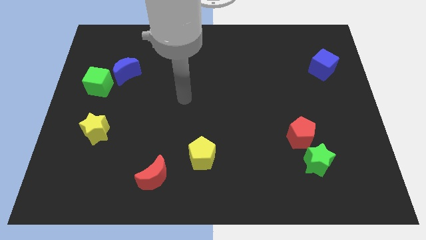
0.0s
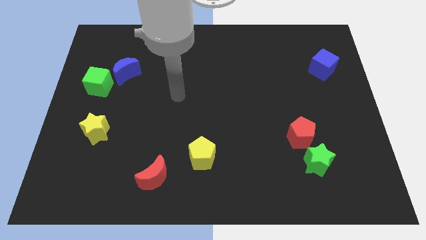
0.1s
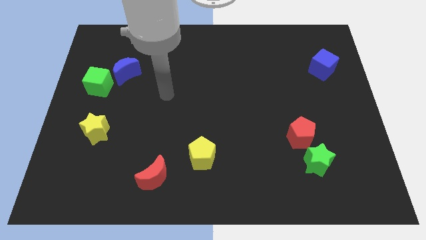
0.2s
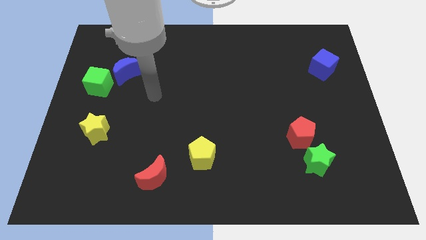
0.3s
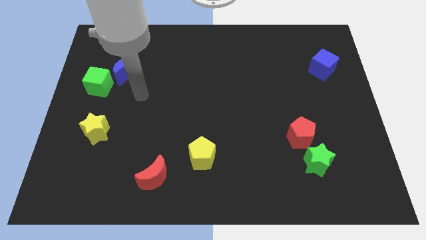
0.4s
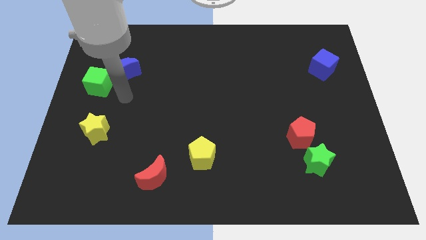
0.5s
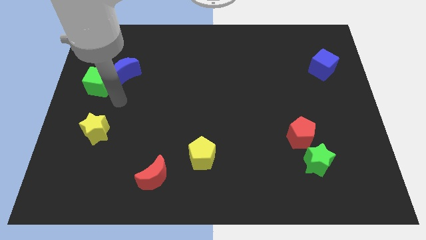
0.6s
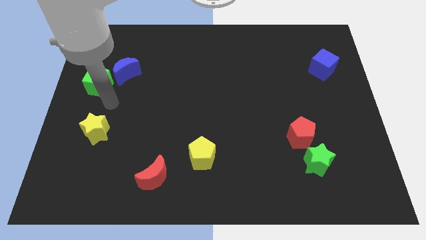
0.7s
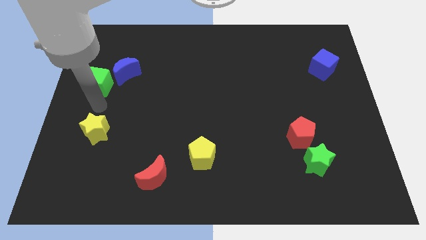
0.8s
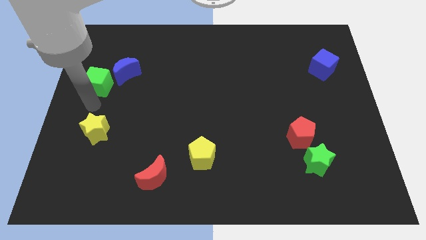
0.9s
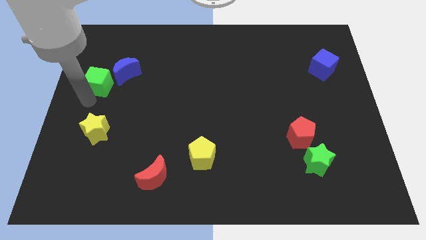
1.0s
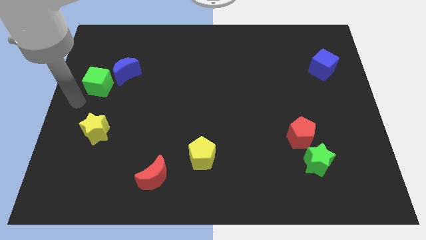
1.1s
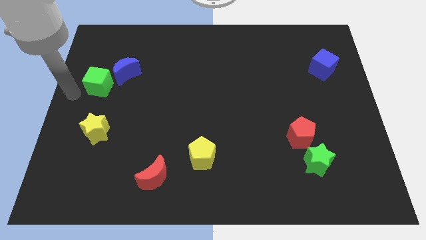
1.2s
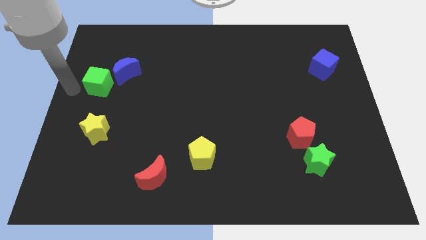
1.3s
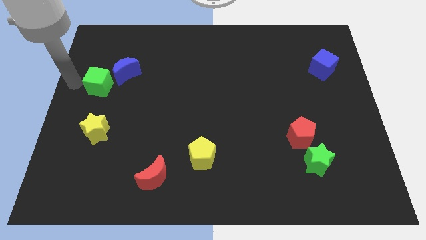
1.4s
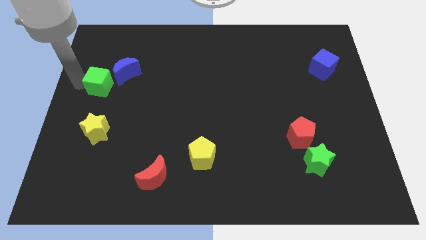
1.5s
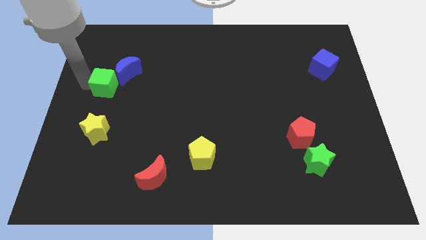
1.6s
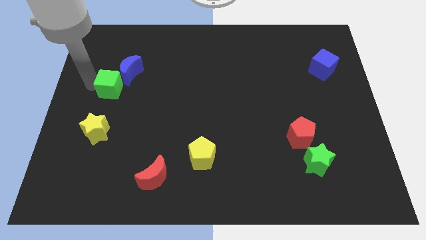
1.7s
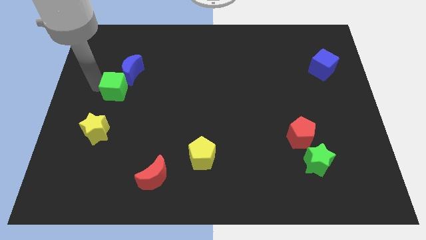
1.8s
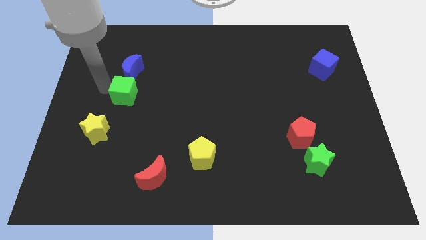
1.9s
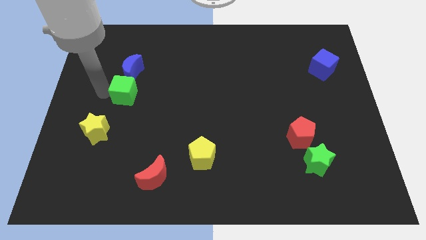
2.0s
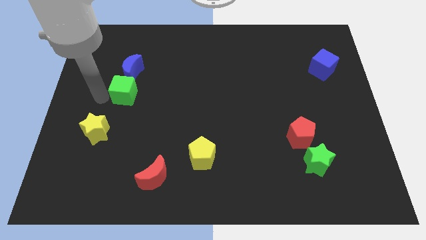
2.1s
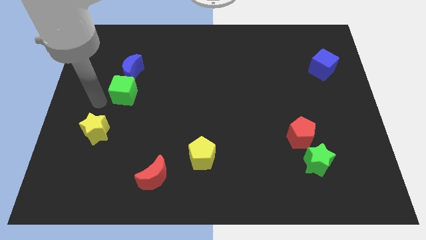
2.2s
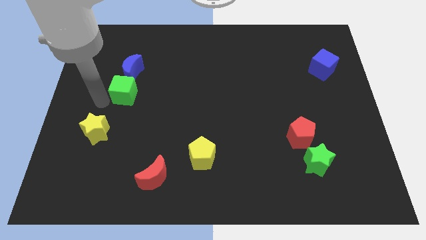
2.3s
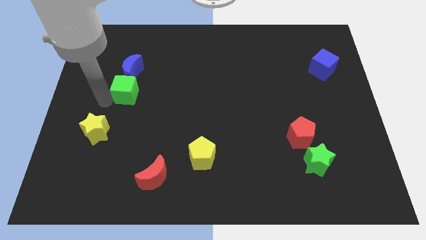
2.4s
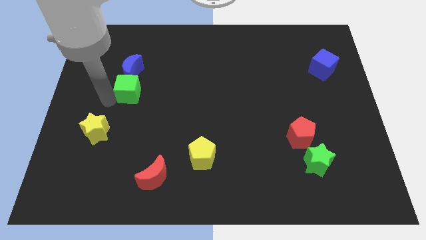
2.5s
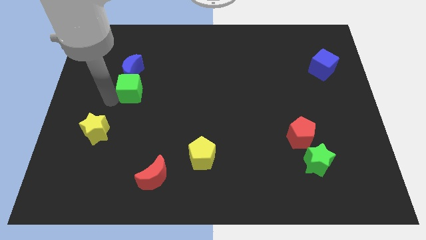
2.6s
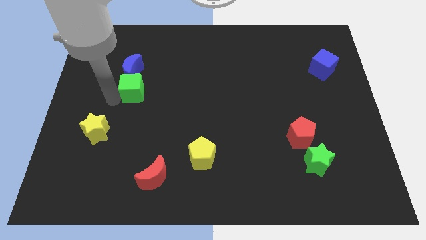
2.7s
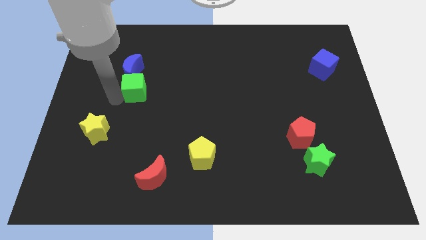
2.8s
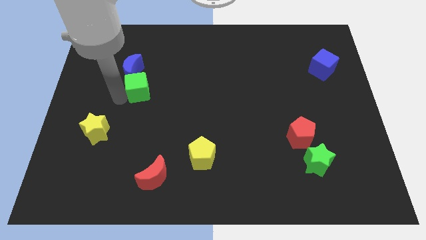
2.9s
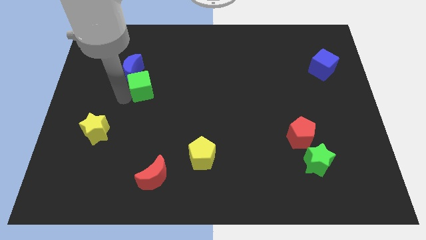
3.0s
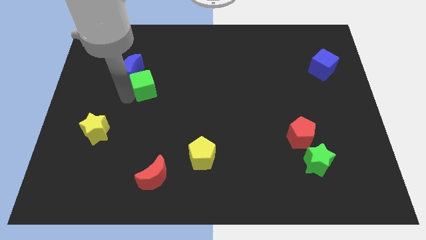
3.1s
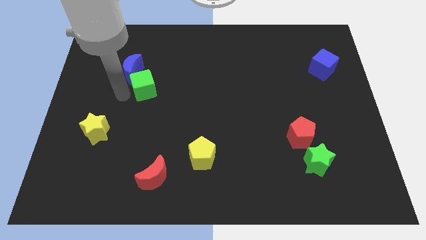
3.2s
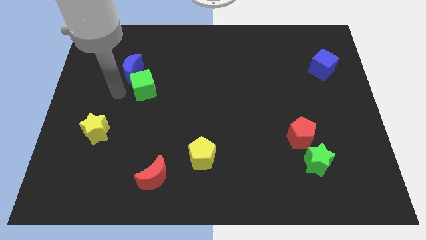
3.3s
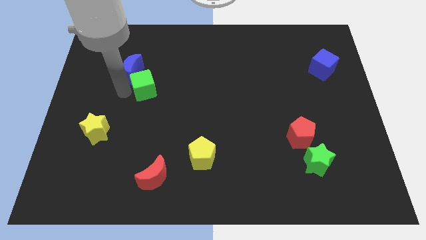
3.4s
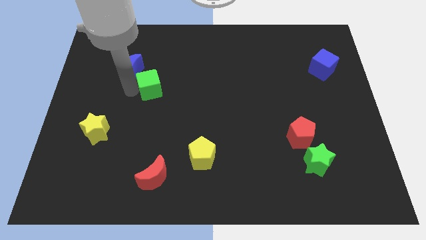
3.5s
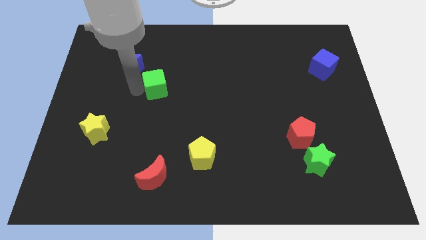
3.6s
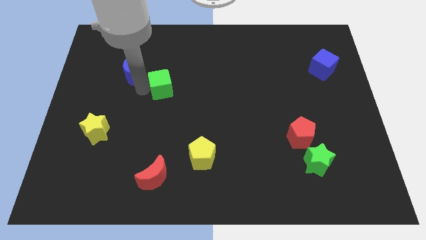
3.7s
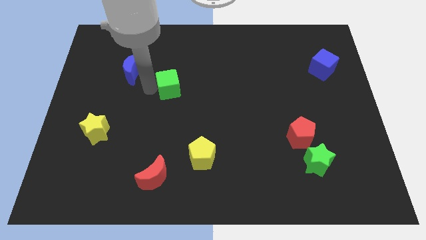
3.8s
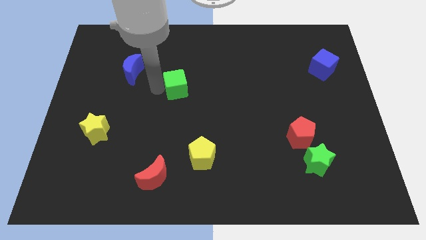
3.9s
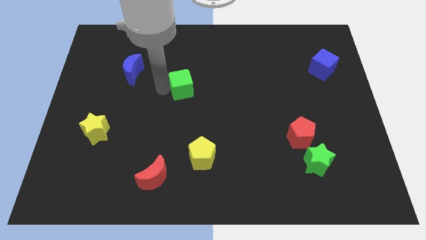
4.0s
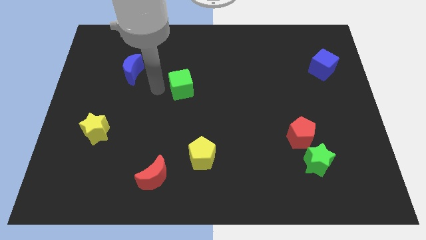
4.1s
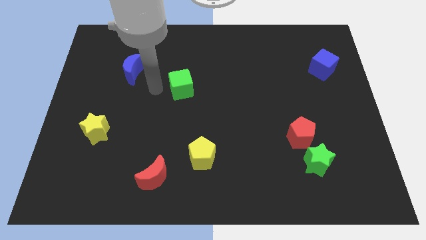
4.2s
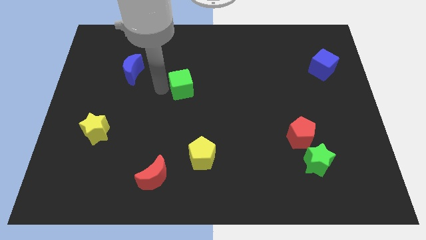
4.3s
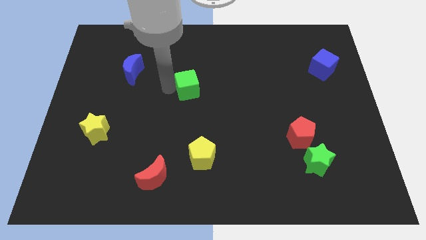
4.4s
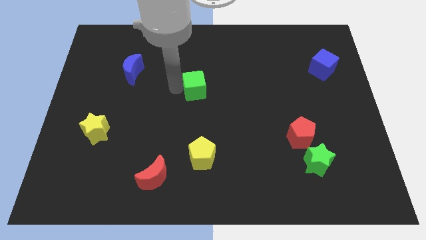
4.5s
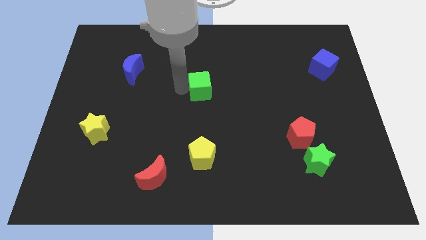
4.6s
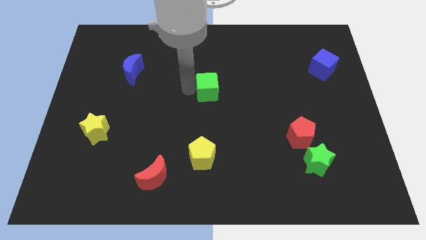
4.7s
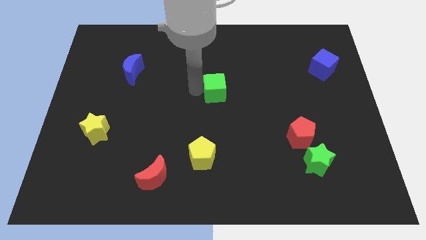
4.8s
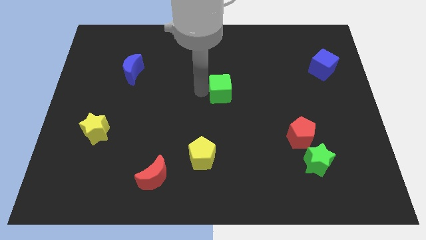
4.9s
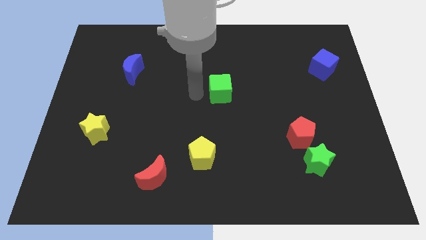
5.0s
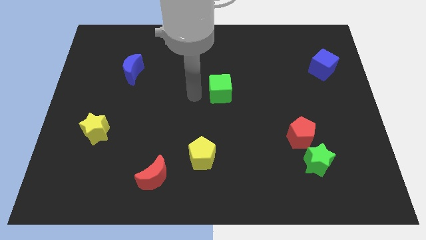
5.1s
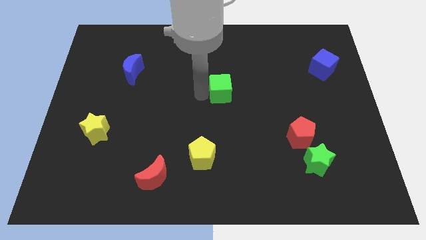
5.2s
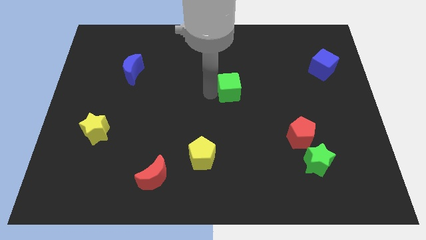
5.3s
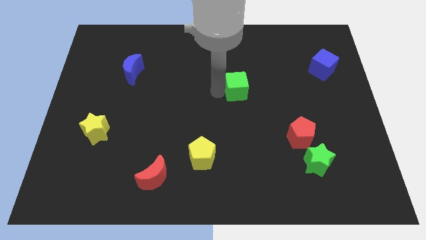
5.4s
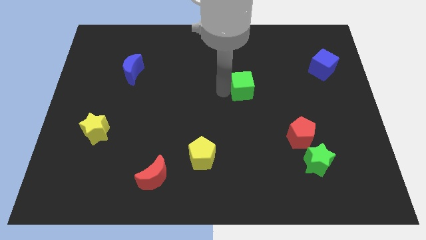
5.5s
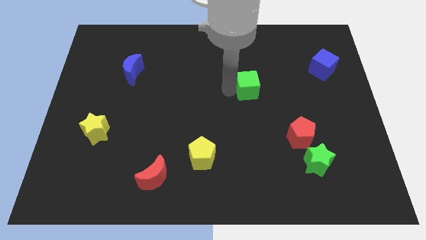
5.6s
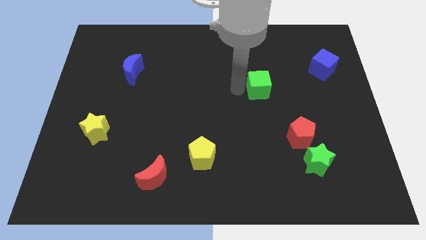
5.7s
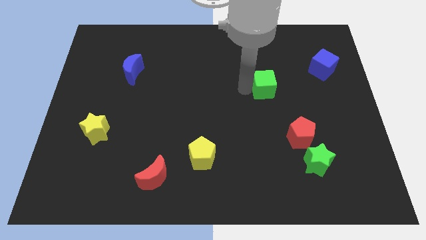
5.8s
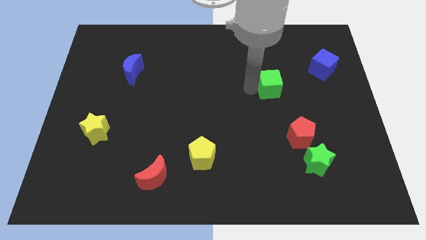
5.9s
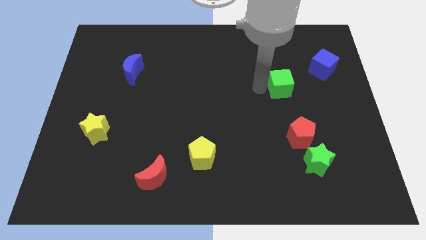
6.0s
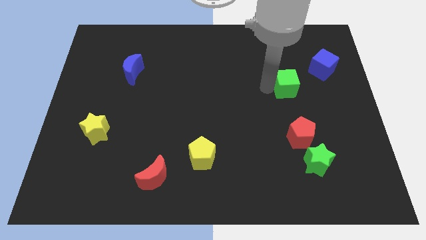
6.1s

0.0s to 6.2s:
put the green cube to the bottom left side of the blue cube

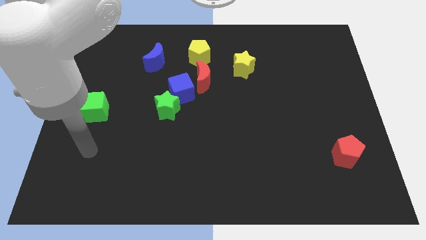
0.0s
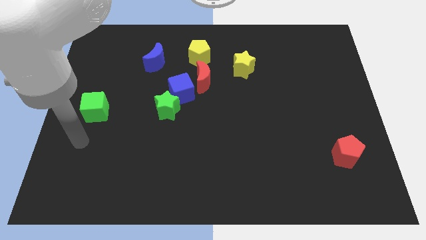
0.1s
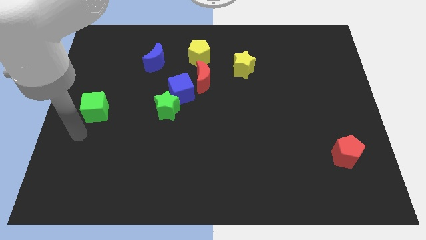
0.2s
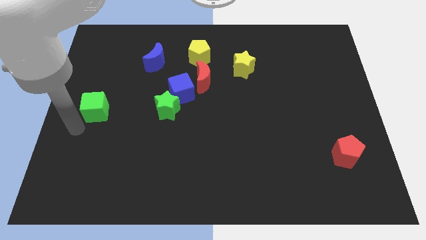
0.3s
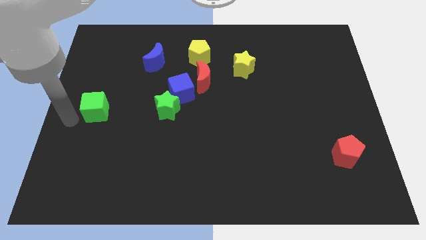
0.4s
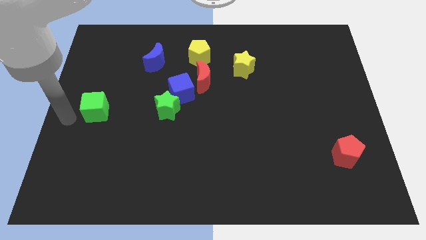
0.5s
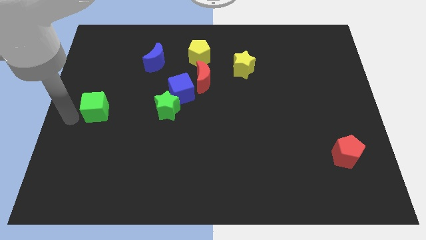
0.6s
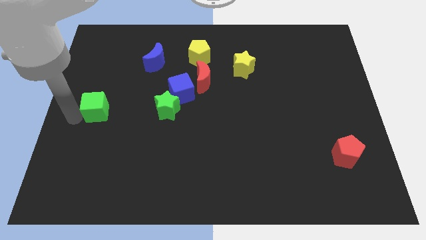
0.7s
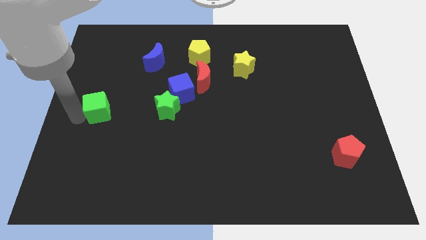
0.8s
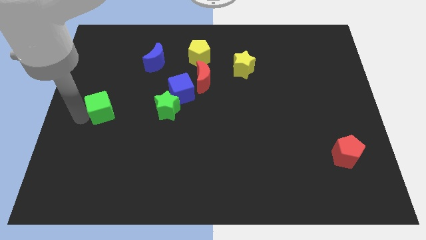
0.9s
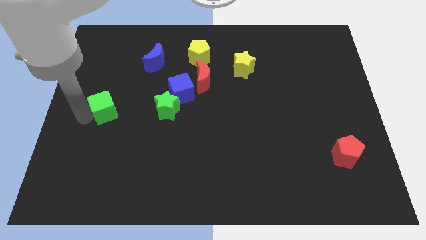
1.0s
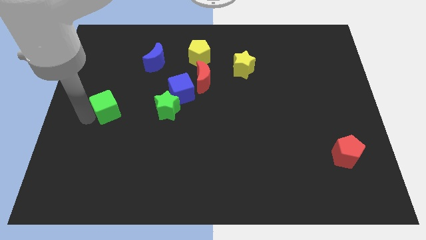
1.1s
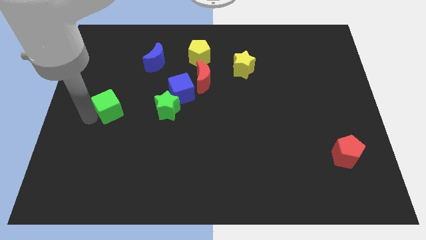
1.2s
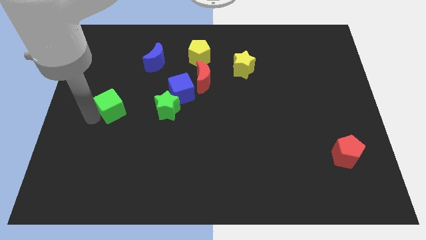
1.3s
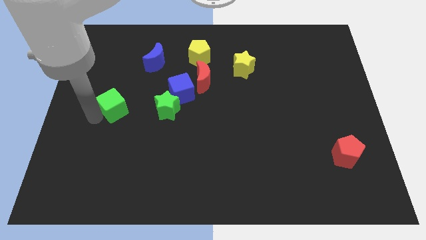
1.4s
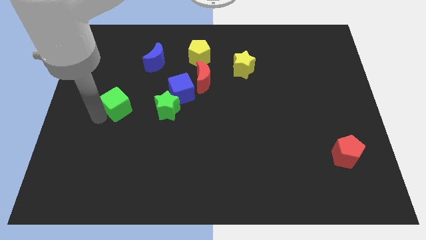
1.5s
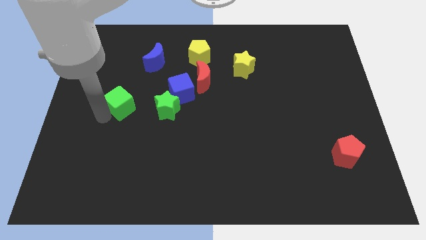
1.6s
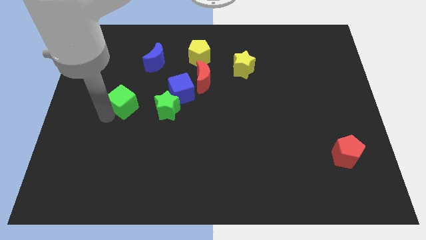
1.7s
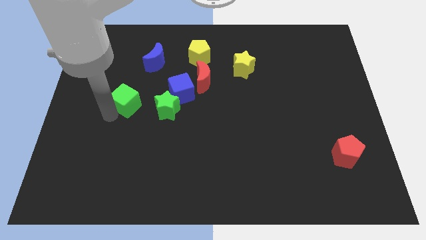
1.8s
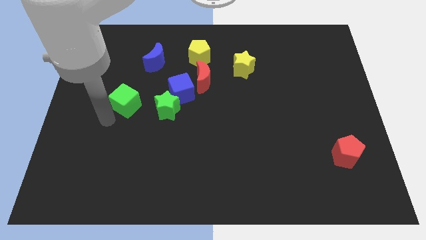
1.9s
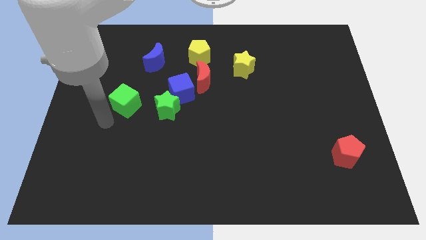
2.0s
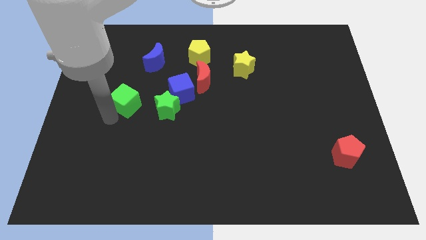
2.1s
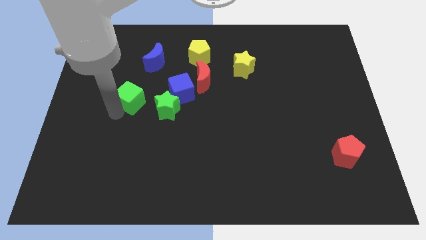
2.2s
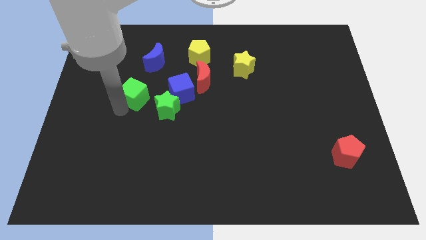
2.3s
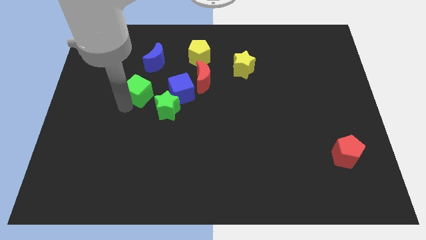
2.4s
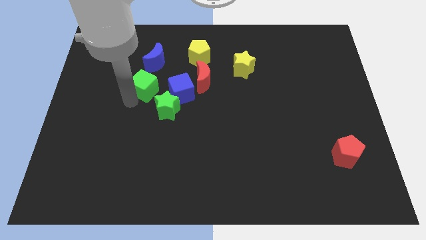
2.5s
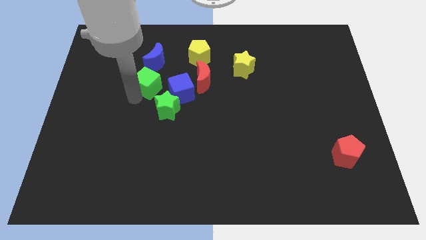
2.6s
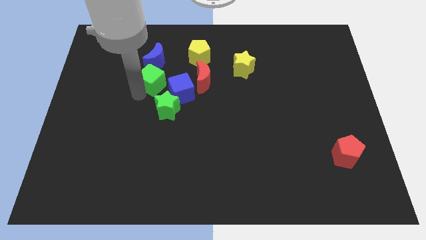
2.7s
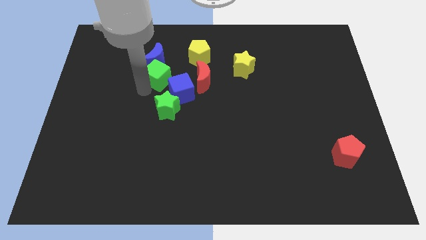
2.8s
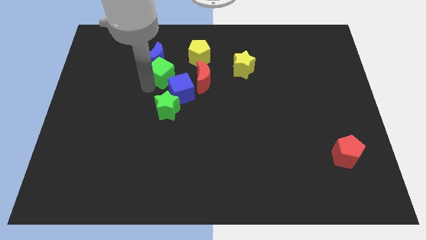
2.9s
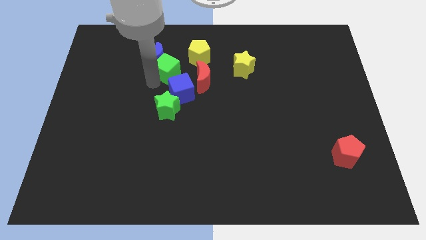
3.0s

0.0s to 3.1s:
slide the green cube to the top of the blue cube
